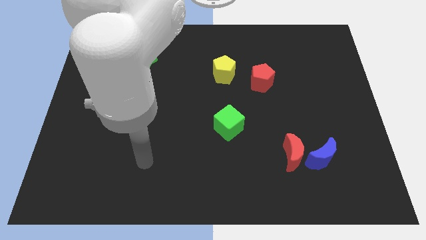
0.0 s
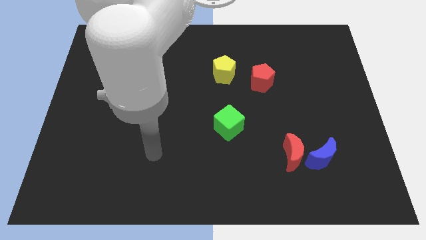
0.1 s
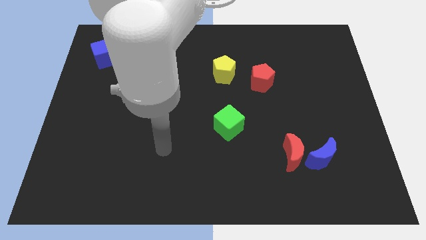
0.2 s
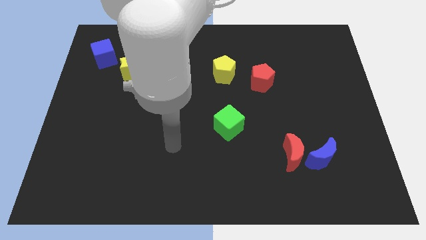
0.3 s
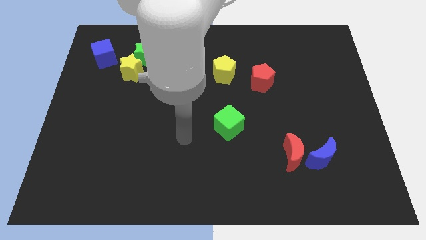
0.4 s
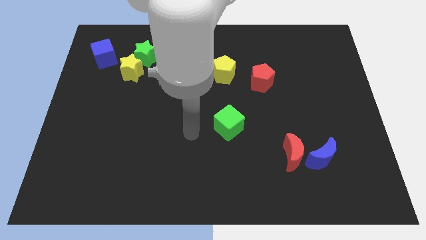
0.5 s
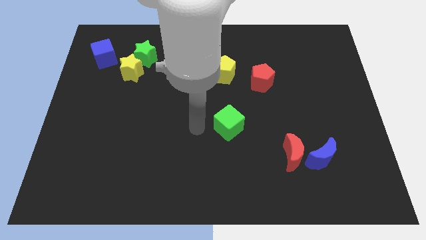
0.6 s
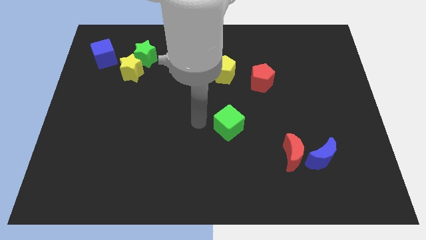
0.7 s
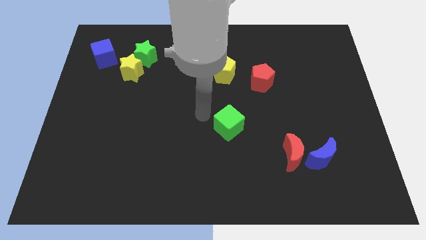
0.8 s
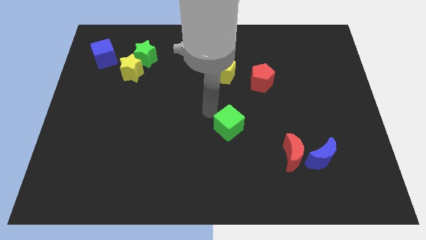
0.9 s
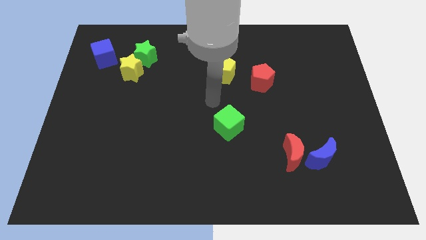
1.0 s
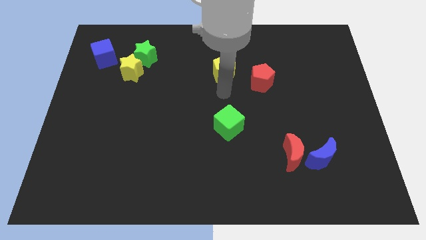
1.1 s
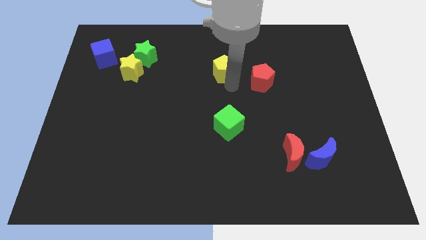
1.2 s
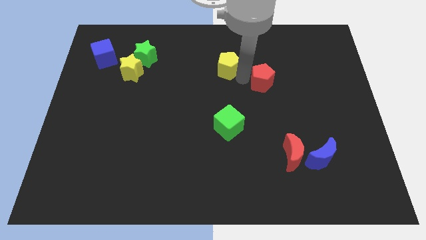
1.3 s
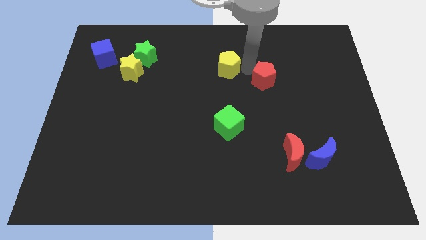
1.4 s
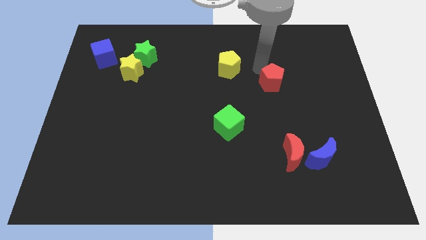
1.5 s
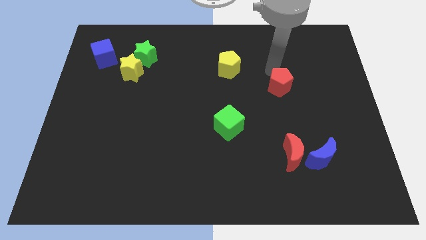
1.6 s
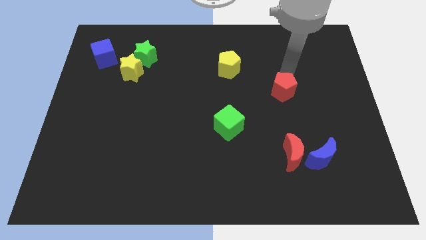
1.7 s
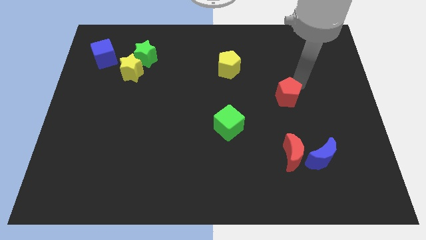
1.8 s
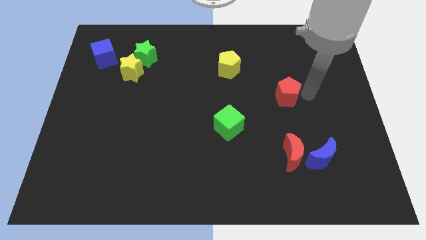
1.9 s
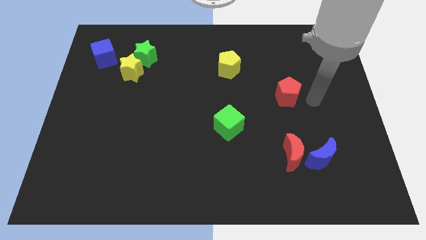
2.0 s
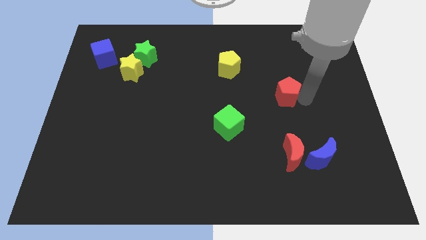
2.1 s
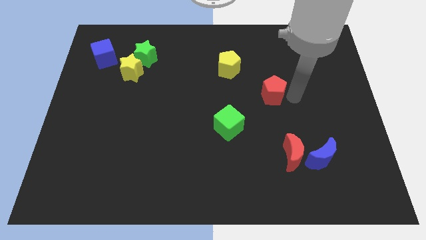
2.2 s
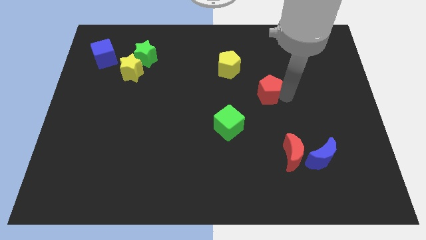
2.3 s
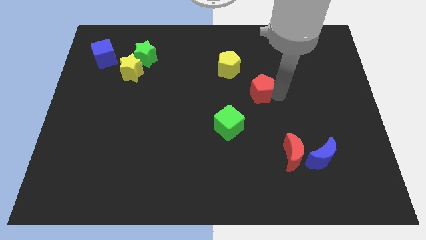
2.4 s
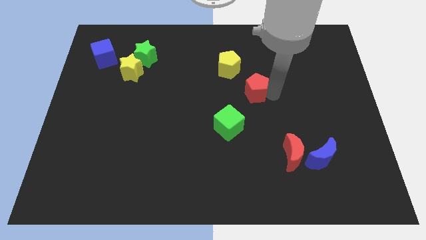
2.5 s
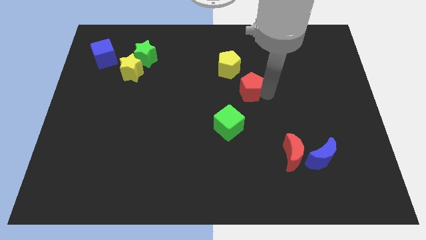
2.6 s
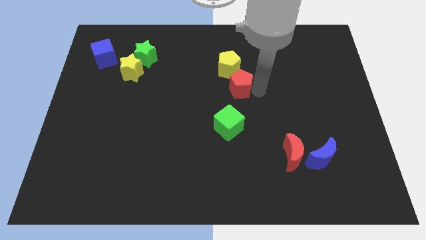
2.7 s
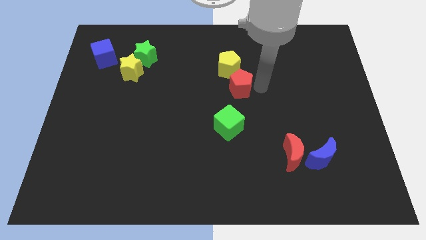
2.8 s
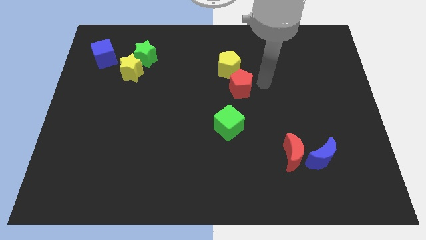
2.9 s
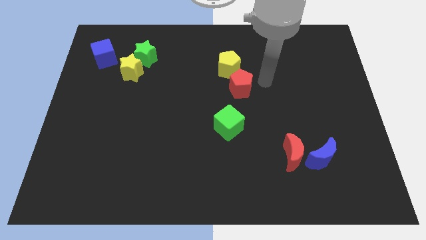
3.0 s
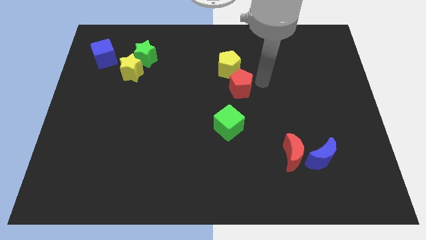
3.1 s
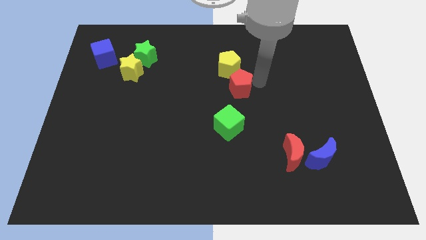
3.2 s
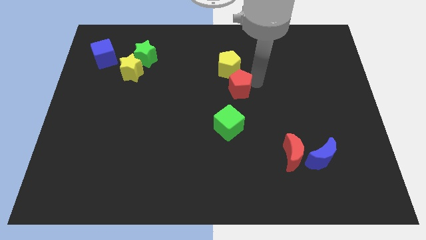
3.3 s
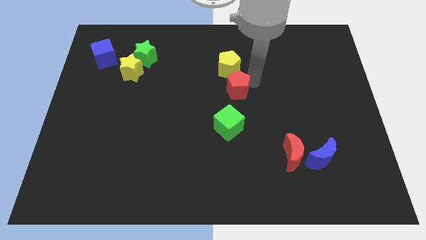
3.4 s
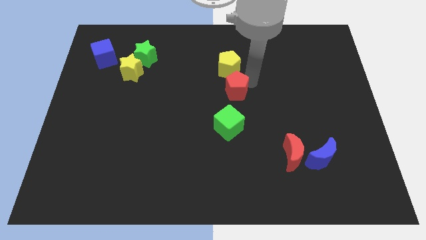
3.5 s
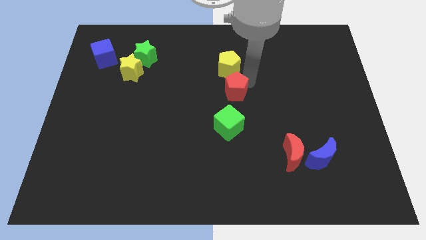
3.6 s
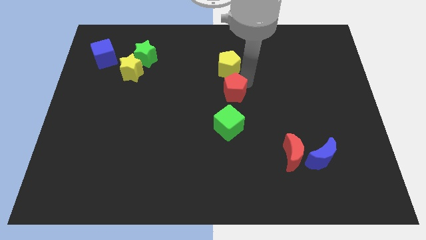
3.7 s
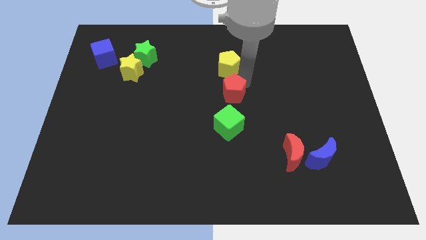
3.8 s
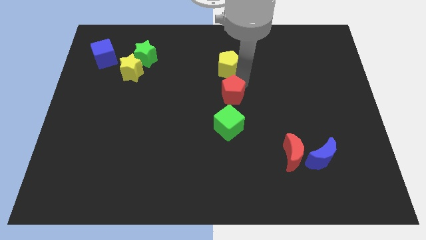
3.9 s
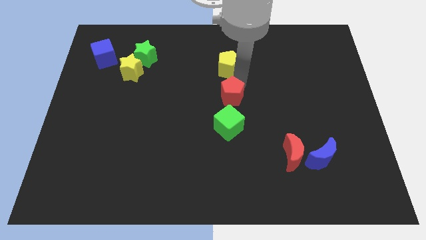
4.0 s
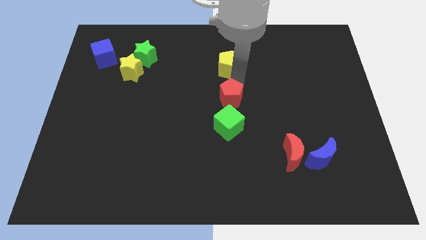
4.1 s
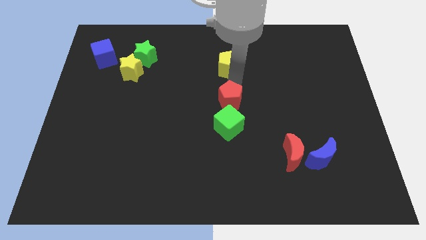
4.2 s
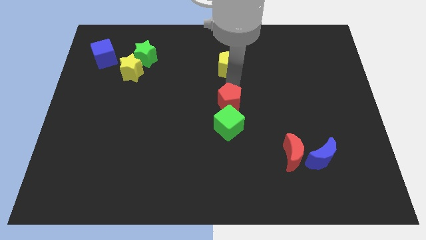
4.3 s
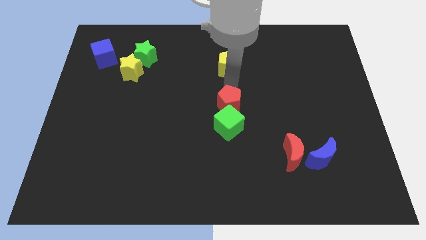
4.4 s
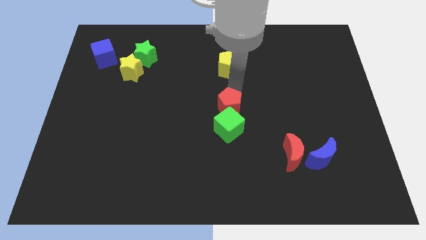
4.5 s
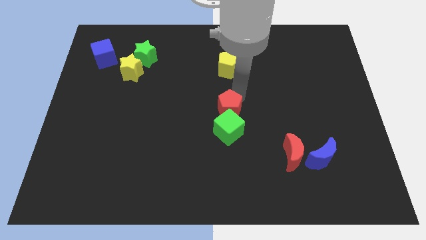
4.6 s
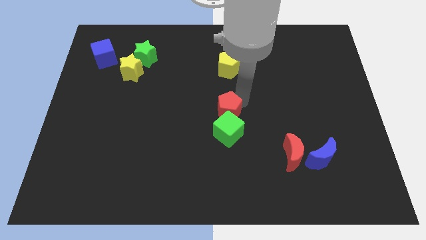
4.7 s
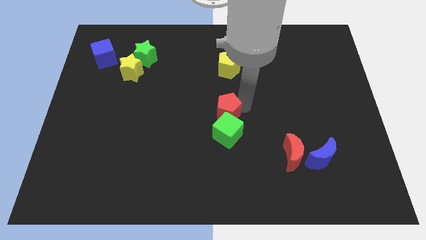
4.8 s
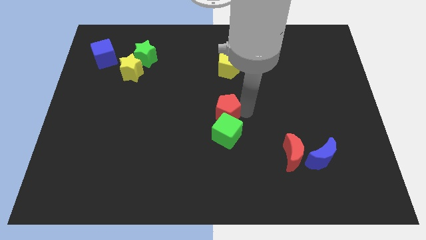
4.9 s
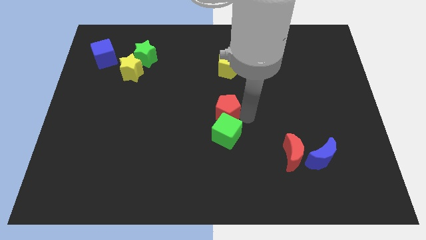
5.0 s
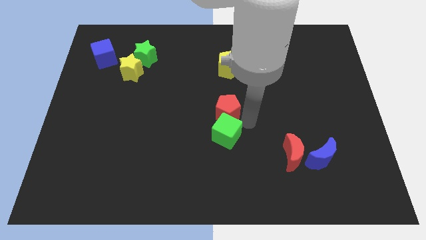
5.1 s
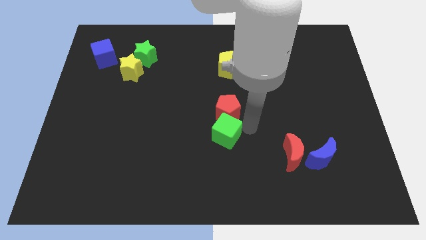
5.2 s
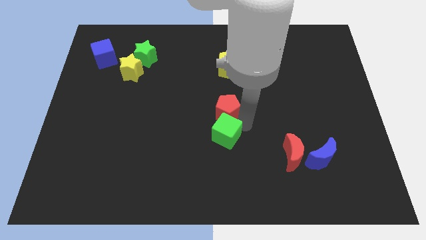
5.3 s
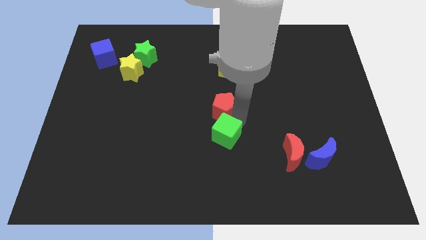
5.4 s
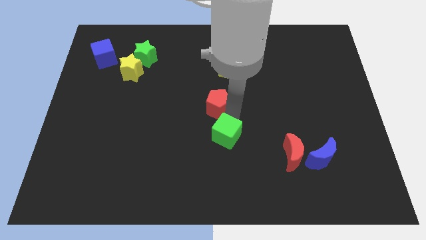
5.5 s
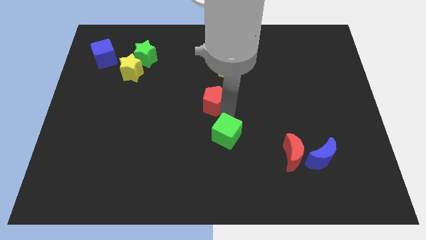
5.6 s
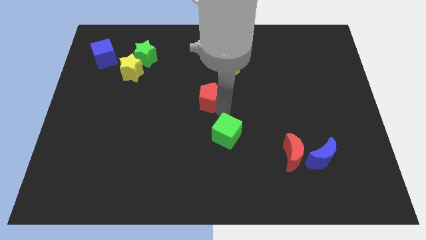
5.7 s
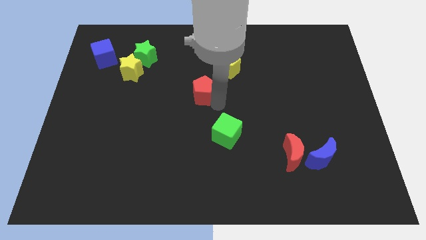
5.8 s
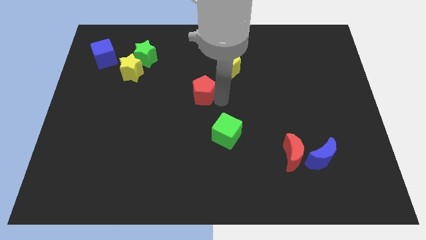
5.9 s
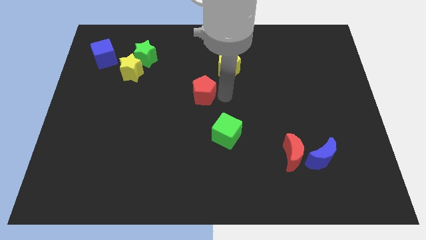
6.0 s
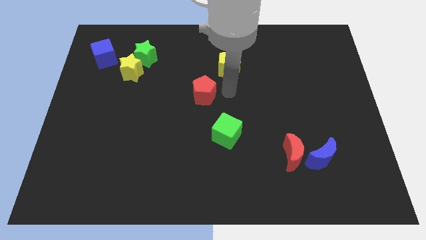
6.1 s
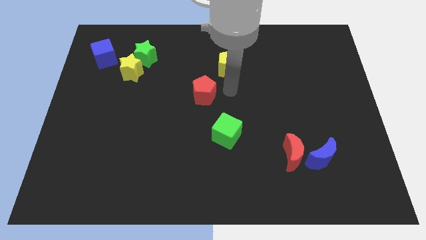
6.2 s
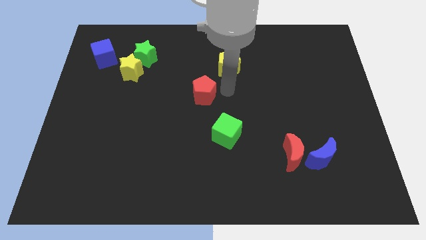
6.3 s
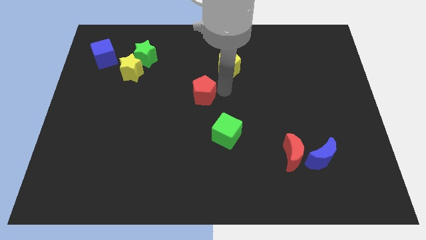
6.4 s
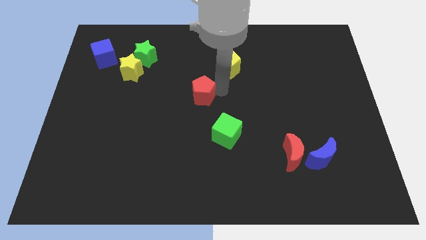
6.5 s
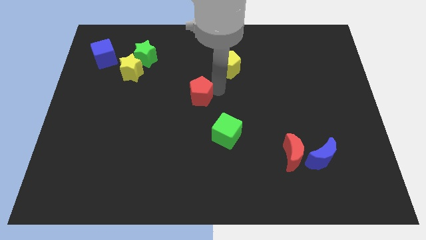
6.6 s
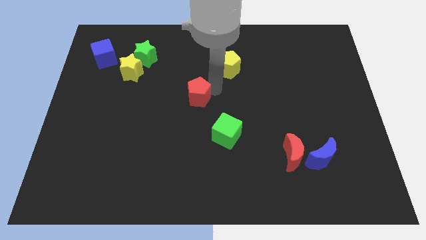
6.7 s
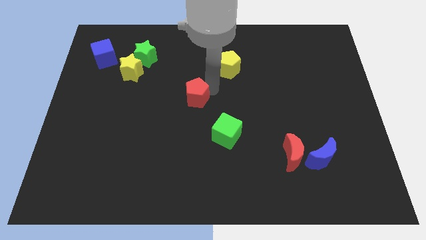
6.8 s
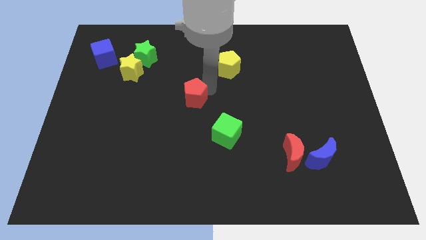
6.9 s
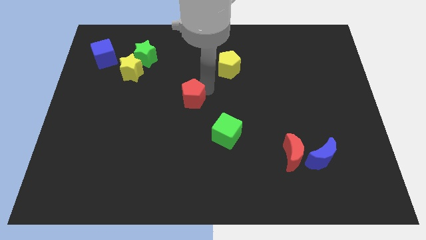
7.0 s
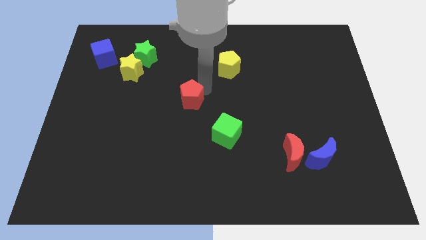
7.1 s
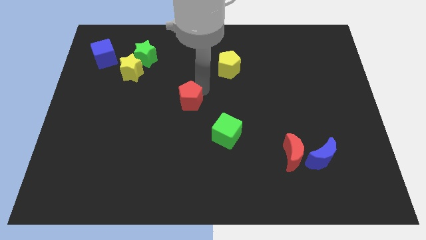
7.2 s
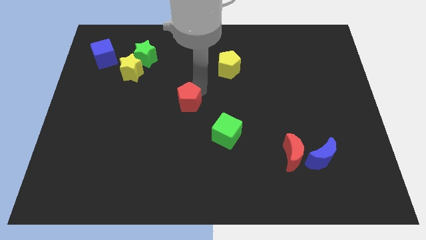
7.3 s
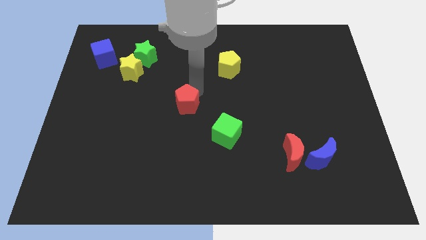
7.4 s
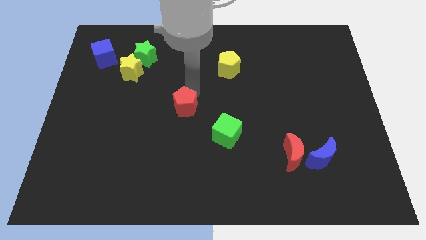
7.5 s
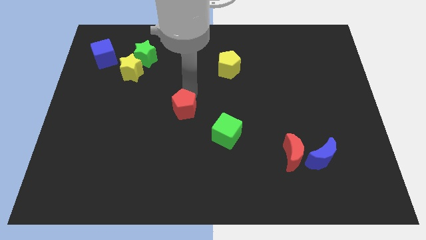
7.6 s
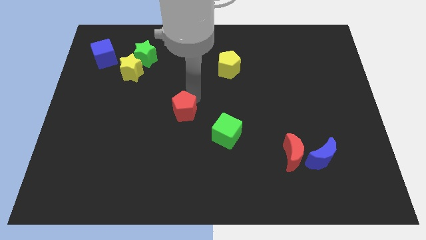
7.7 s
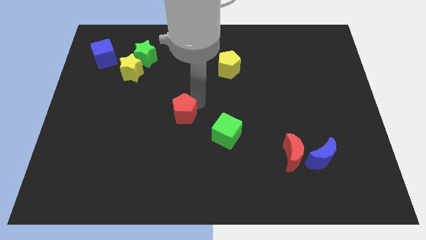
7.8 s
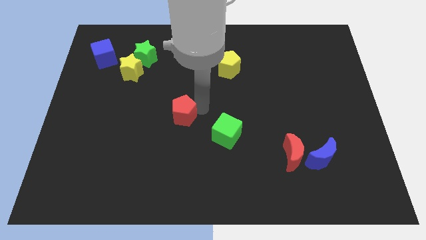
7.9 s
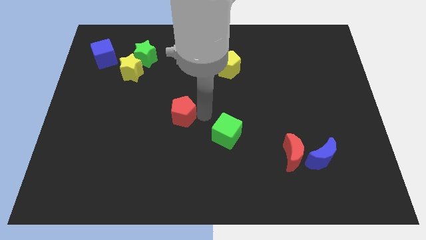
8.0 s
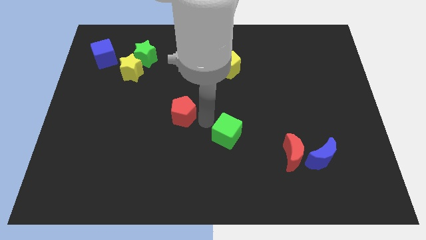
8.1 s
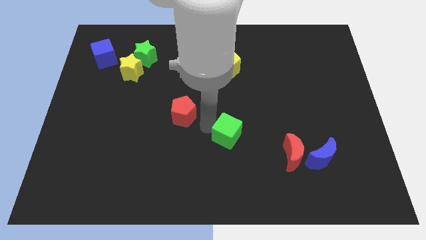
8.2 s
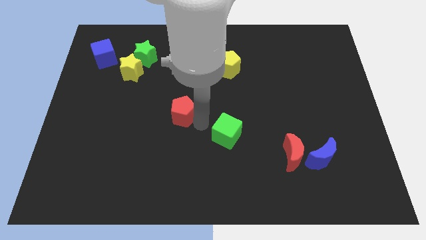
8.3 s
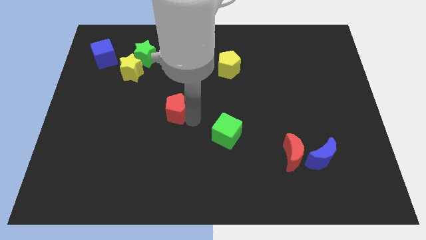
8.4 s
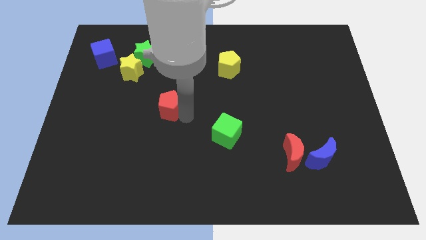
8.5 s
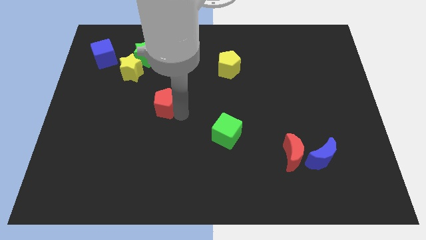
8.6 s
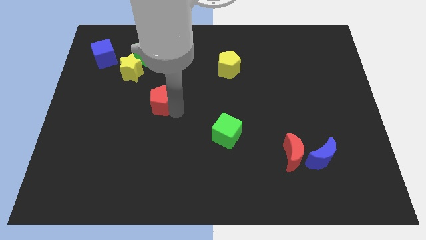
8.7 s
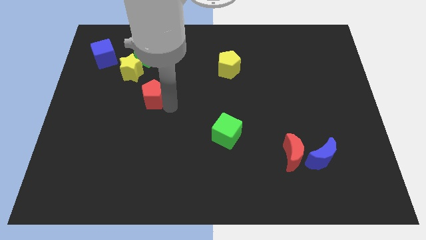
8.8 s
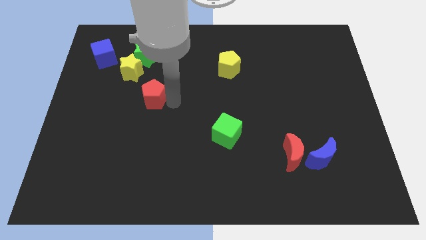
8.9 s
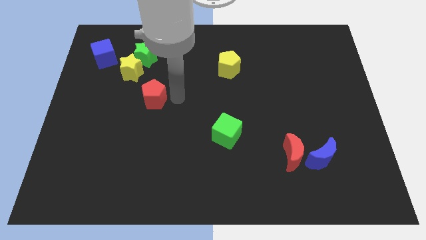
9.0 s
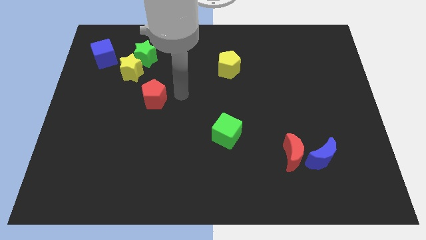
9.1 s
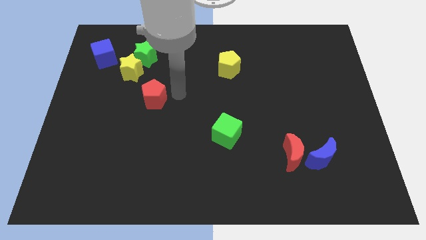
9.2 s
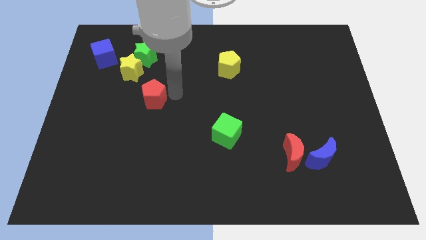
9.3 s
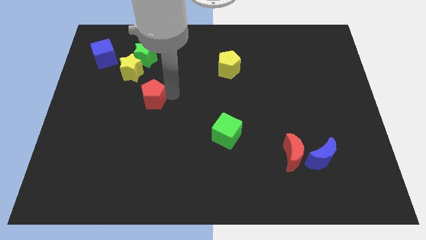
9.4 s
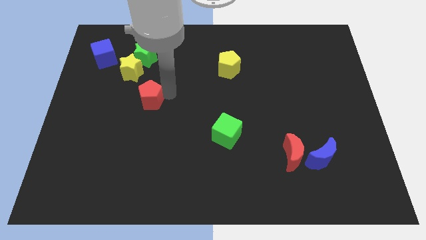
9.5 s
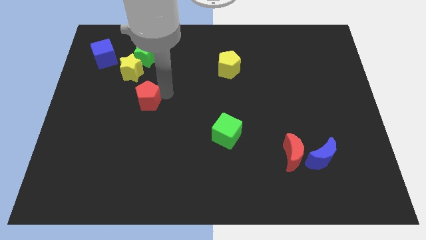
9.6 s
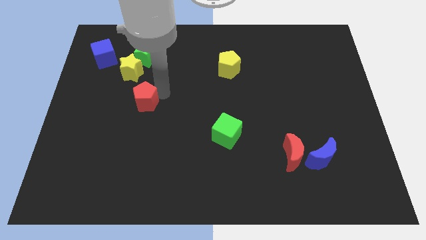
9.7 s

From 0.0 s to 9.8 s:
put the red pentagon to the bottom side of the yellow star
